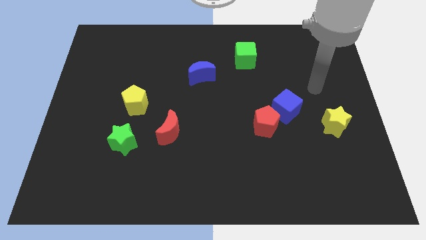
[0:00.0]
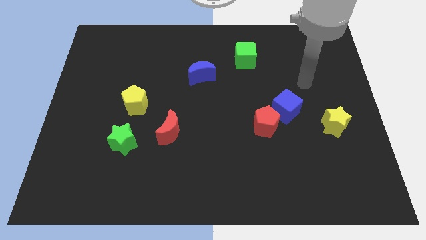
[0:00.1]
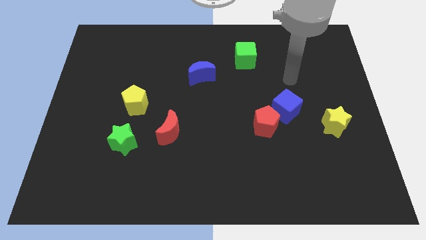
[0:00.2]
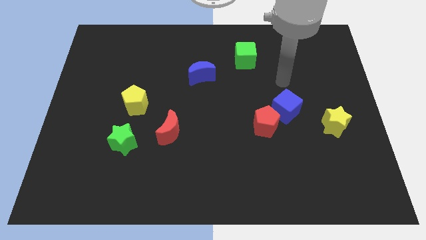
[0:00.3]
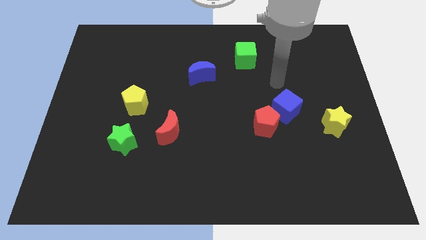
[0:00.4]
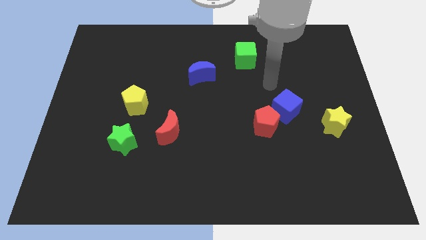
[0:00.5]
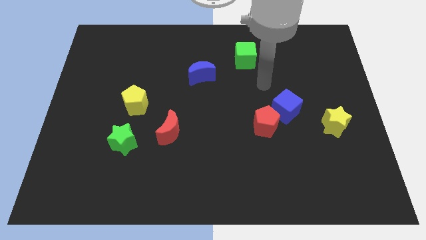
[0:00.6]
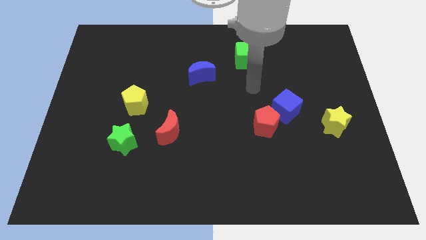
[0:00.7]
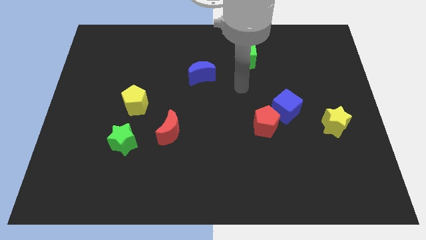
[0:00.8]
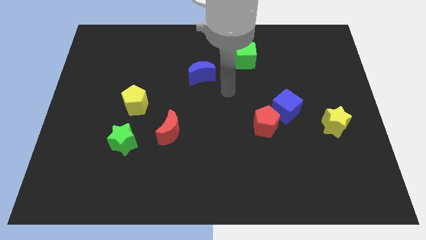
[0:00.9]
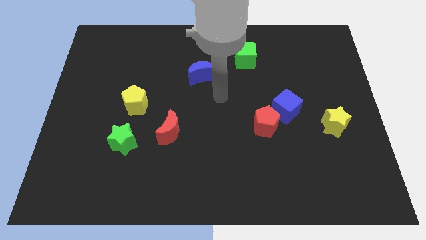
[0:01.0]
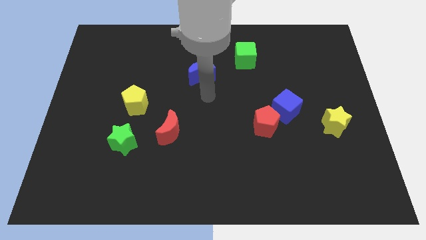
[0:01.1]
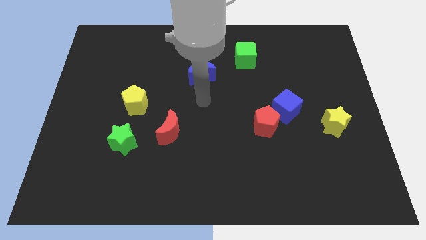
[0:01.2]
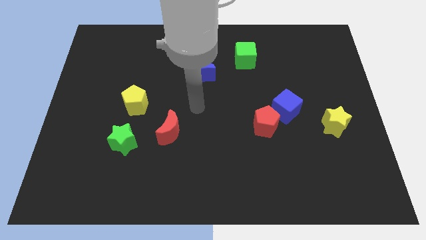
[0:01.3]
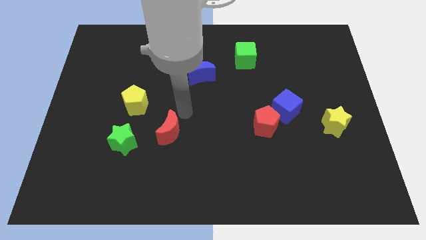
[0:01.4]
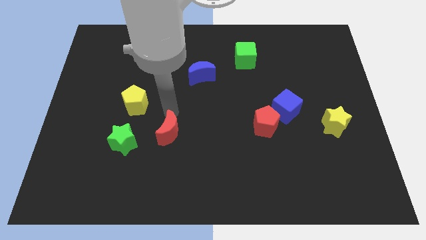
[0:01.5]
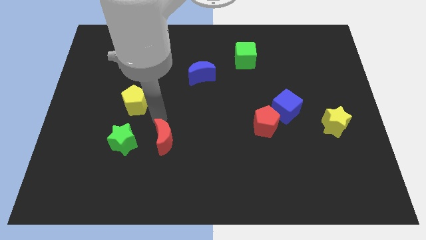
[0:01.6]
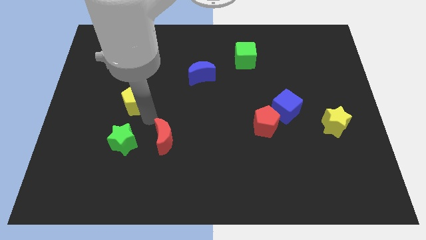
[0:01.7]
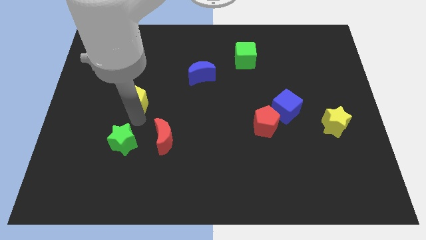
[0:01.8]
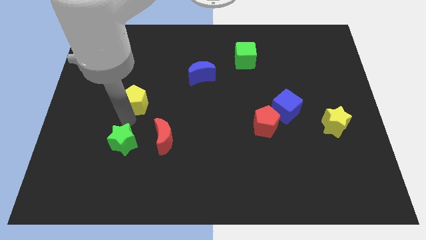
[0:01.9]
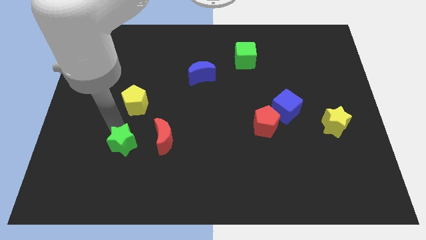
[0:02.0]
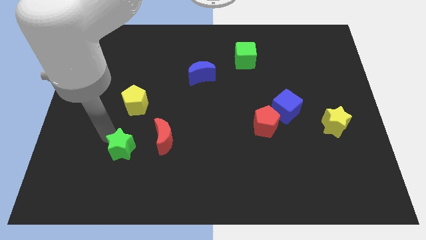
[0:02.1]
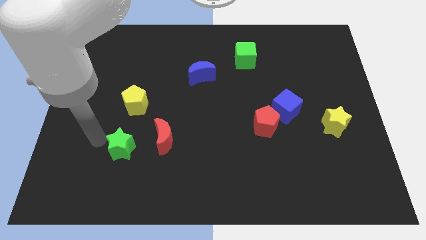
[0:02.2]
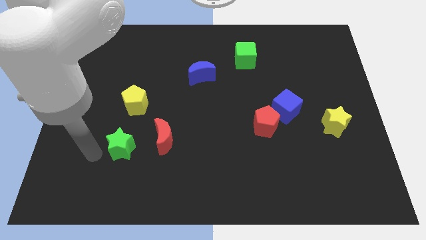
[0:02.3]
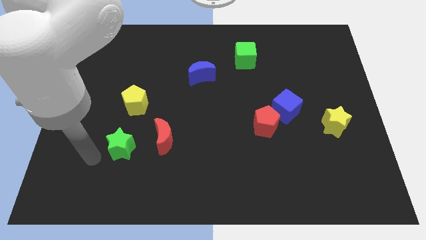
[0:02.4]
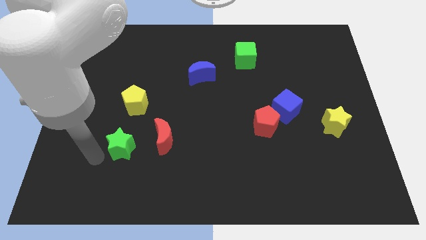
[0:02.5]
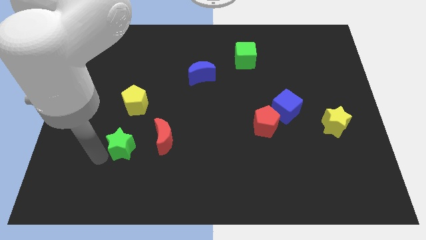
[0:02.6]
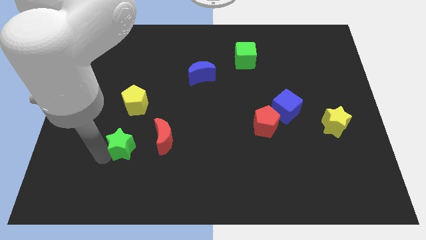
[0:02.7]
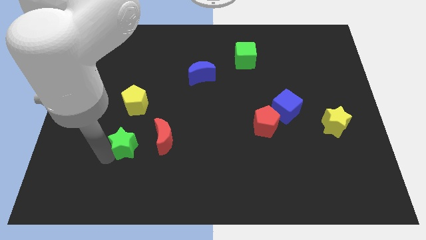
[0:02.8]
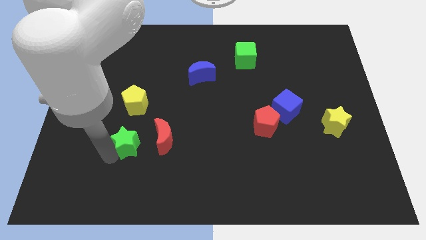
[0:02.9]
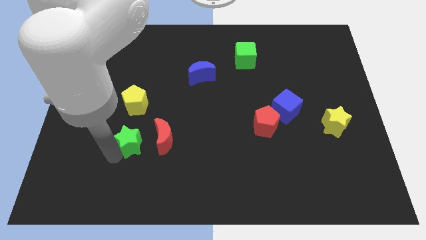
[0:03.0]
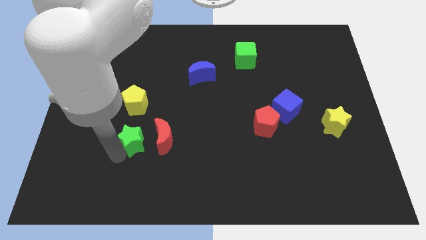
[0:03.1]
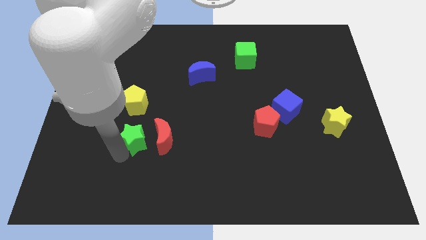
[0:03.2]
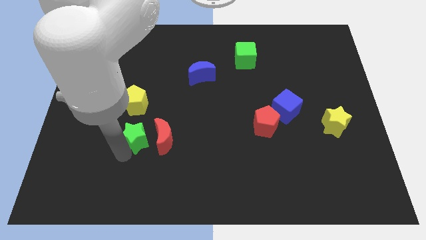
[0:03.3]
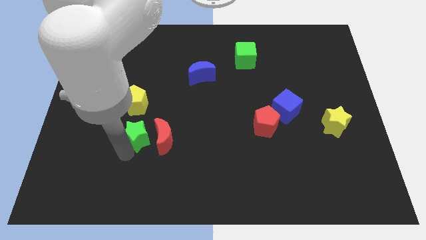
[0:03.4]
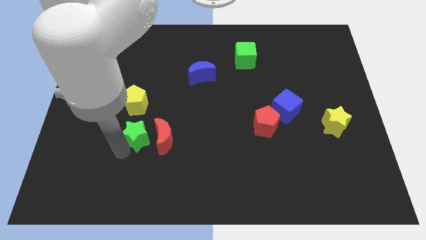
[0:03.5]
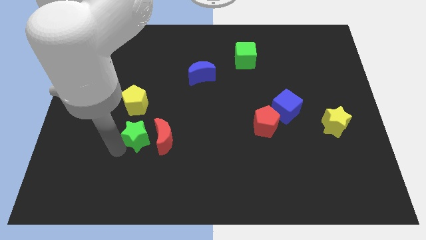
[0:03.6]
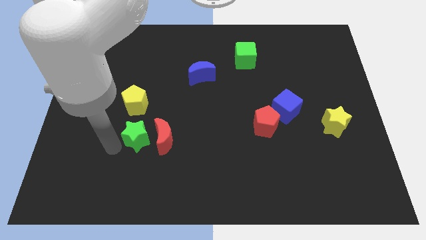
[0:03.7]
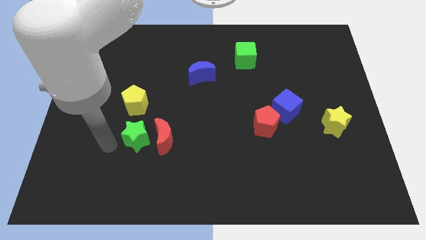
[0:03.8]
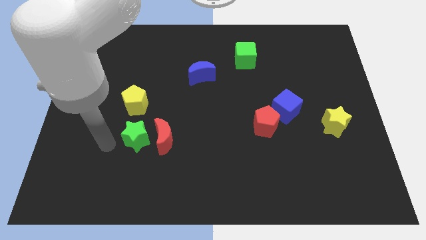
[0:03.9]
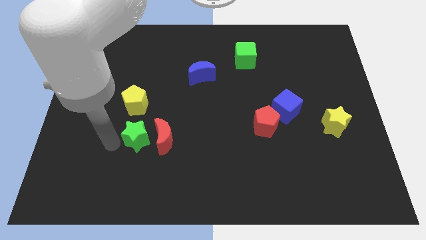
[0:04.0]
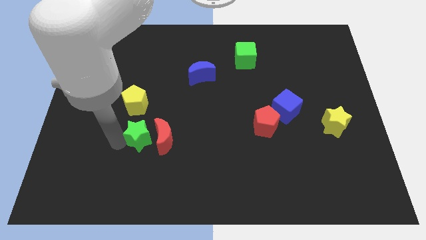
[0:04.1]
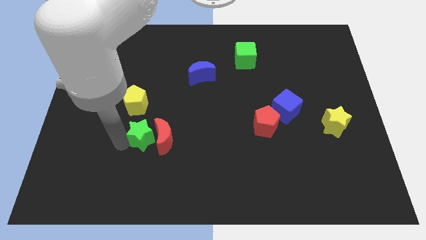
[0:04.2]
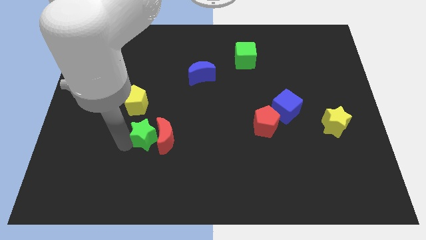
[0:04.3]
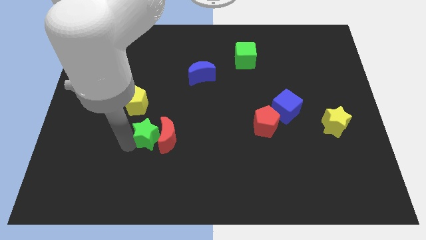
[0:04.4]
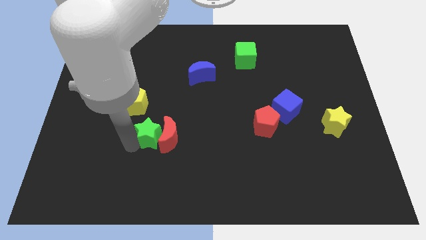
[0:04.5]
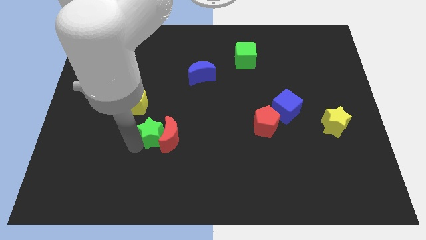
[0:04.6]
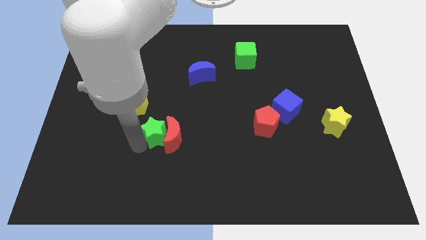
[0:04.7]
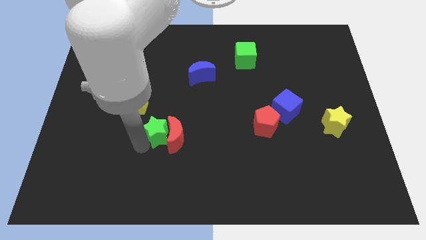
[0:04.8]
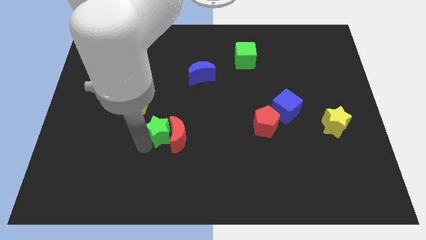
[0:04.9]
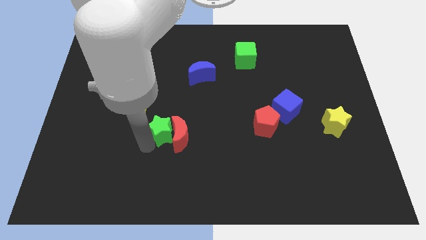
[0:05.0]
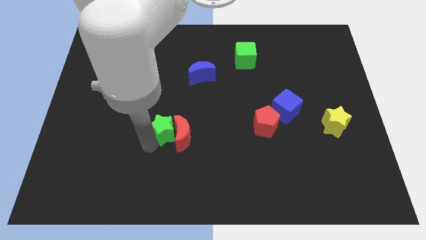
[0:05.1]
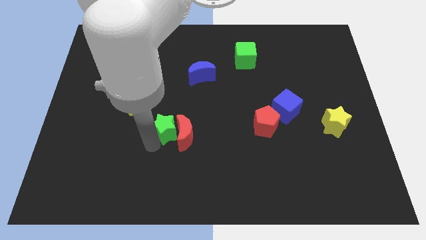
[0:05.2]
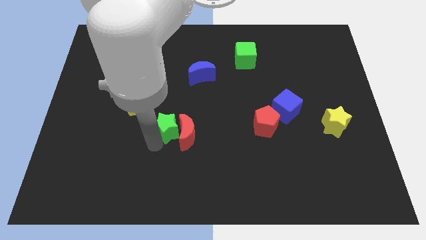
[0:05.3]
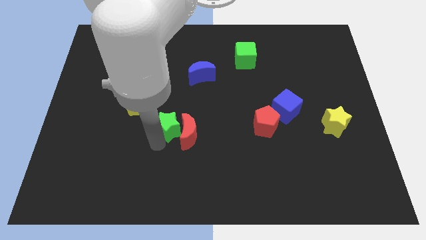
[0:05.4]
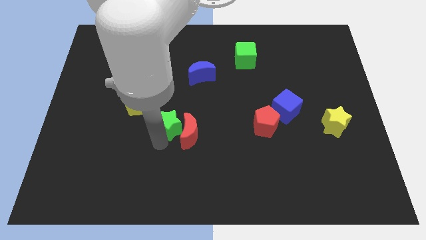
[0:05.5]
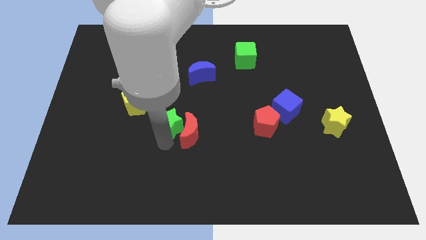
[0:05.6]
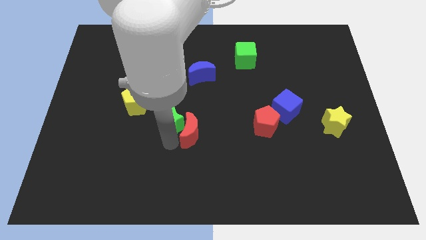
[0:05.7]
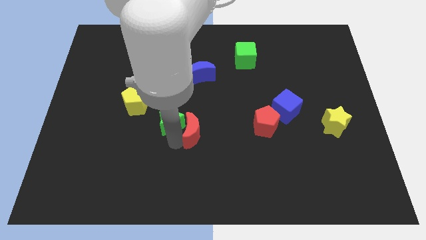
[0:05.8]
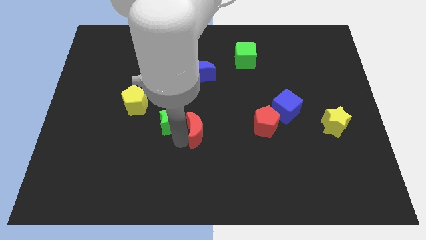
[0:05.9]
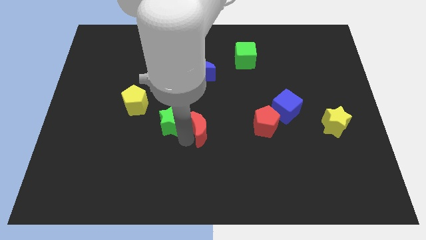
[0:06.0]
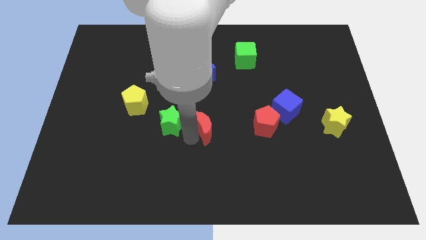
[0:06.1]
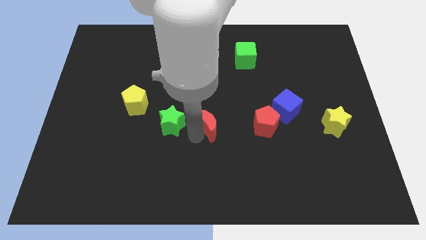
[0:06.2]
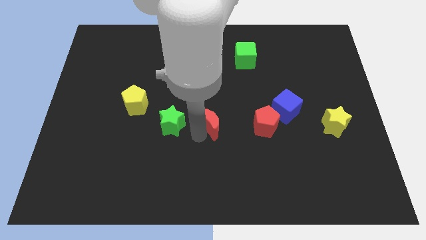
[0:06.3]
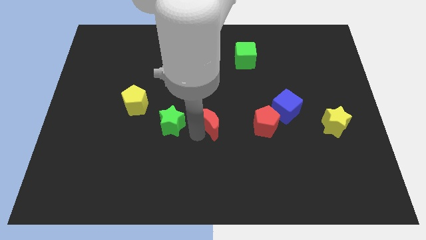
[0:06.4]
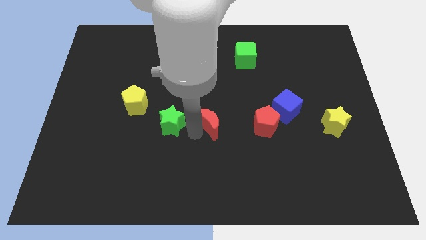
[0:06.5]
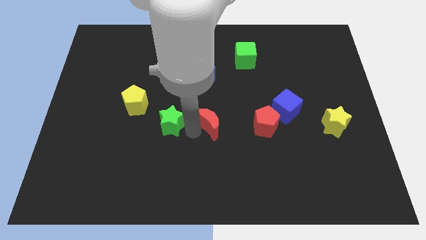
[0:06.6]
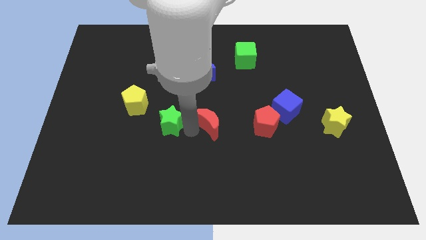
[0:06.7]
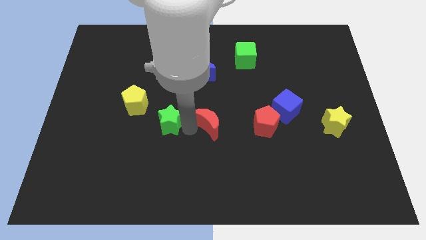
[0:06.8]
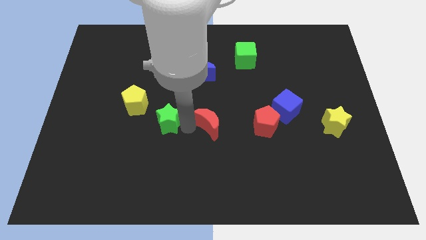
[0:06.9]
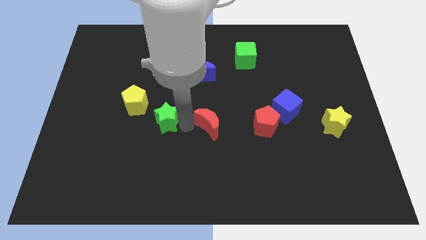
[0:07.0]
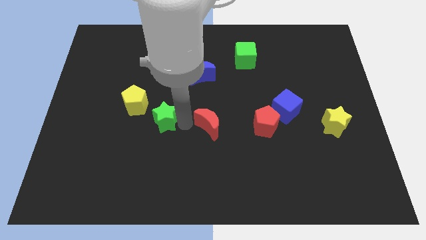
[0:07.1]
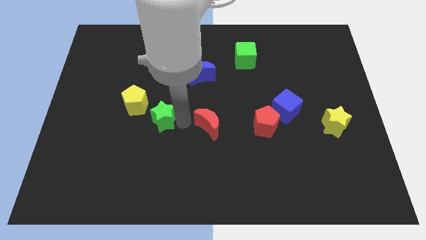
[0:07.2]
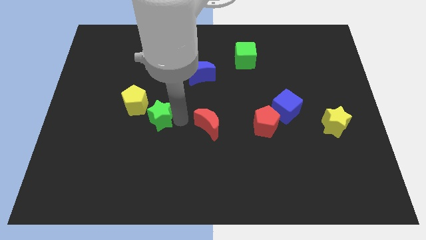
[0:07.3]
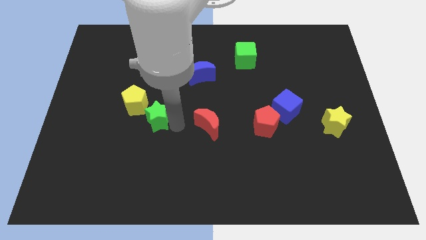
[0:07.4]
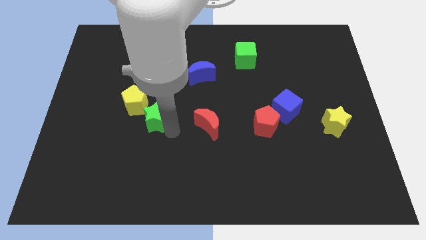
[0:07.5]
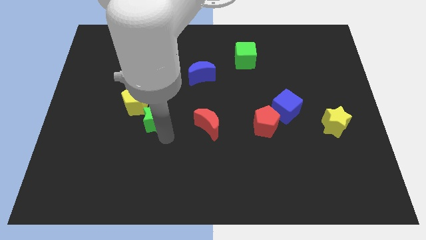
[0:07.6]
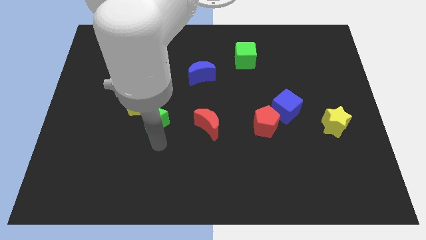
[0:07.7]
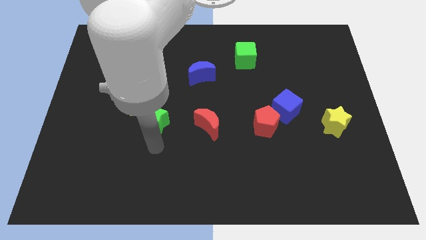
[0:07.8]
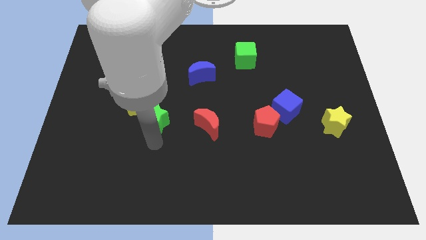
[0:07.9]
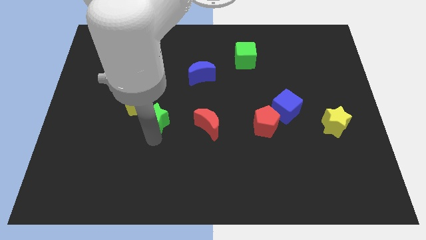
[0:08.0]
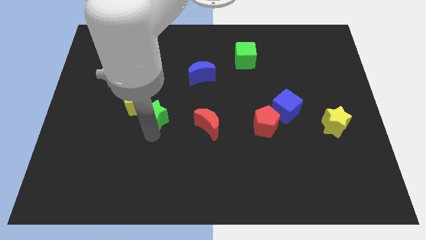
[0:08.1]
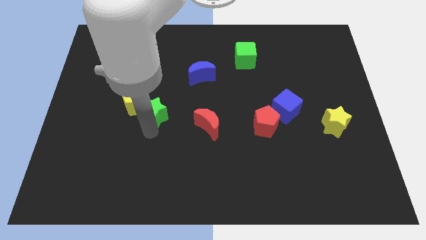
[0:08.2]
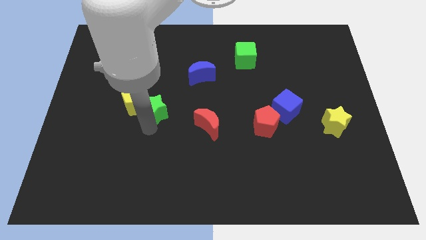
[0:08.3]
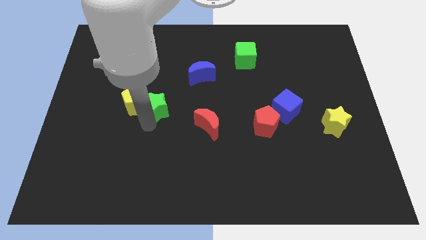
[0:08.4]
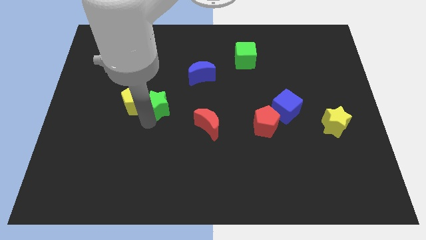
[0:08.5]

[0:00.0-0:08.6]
move the green star to the top right of the yellow pentagon
